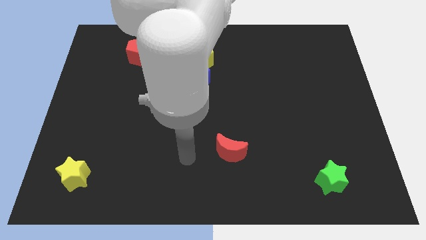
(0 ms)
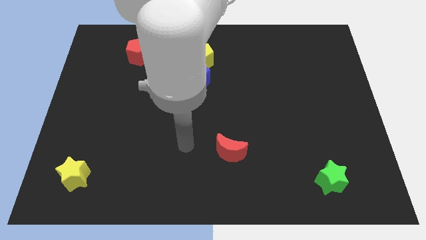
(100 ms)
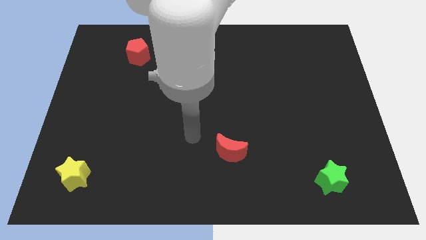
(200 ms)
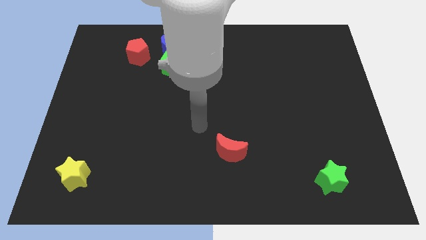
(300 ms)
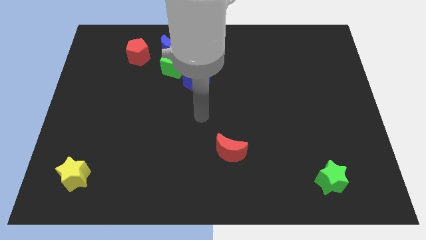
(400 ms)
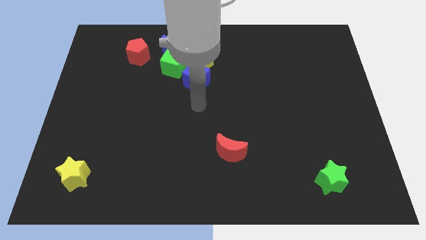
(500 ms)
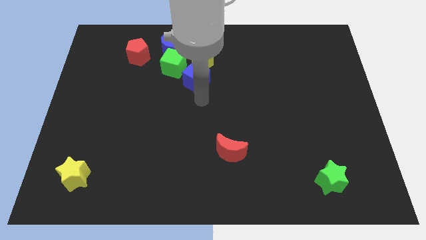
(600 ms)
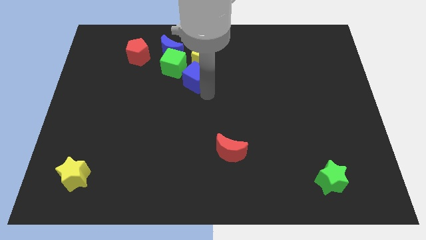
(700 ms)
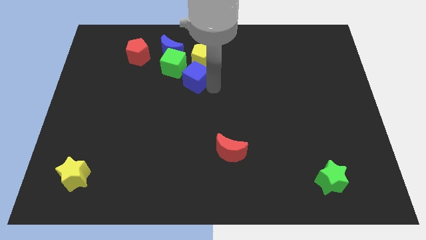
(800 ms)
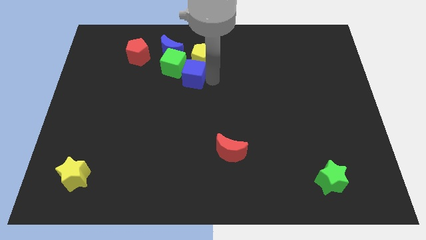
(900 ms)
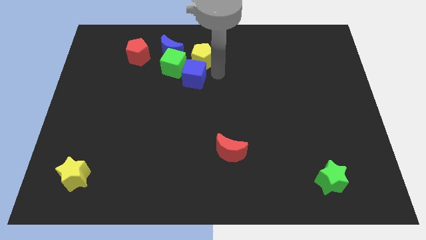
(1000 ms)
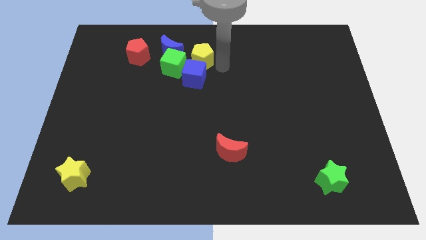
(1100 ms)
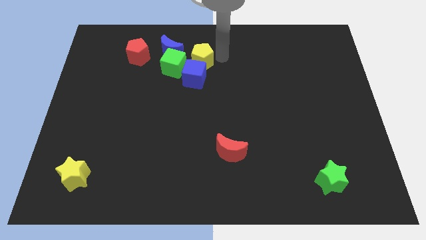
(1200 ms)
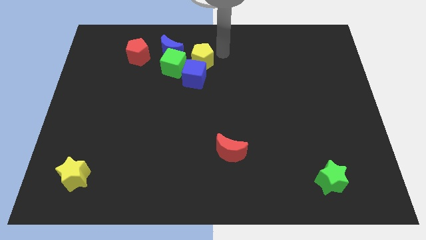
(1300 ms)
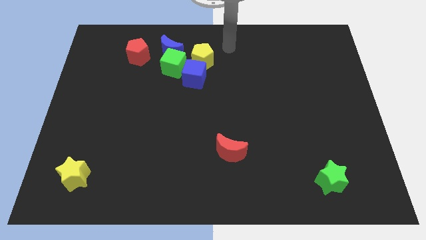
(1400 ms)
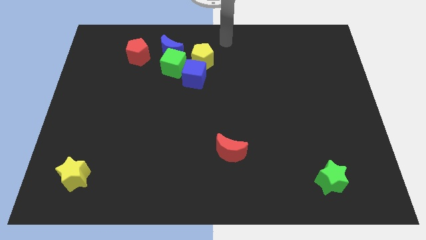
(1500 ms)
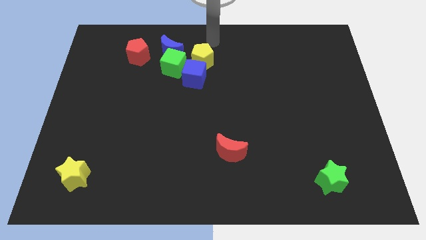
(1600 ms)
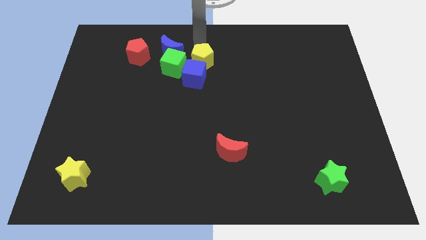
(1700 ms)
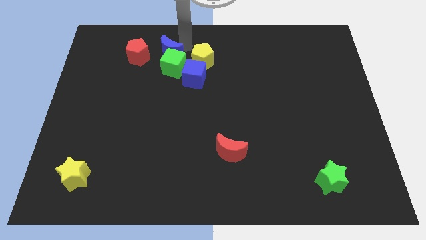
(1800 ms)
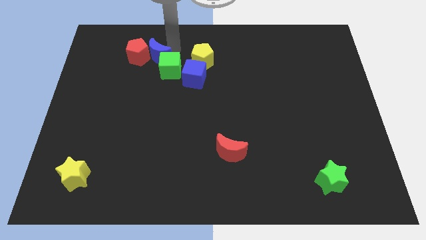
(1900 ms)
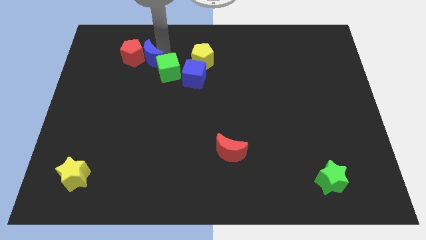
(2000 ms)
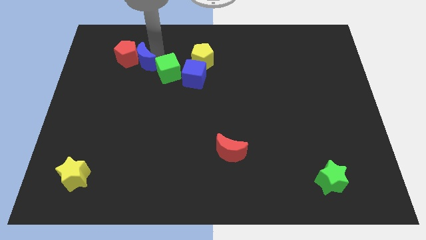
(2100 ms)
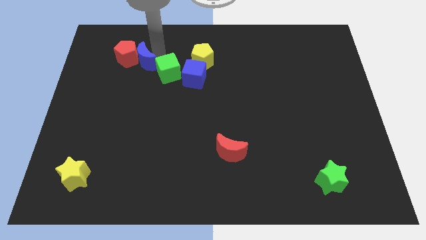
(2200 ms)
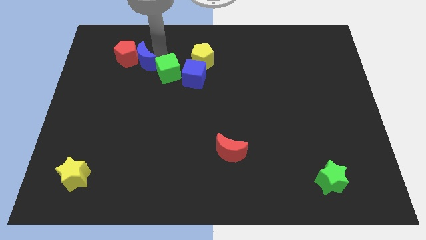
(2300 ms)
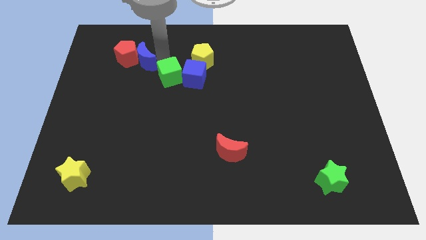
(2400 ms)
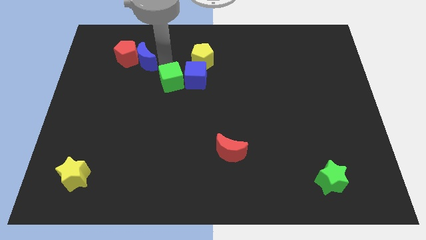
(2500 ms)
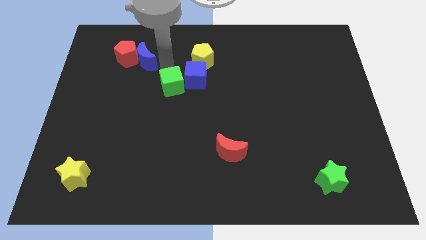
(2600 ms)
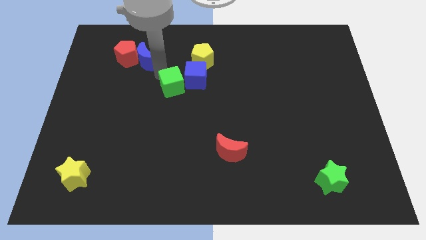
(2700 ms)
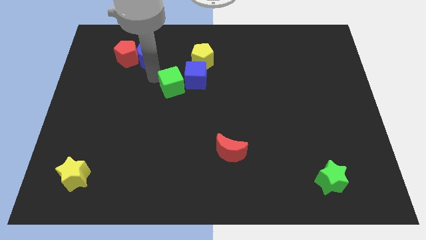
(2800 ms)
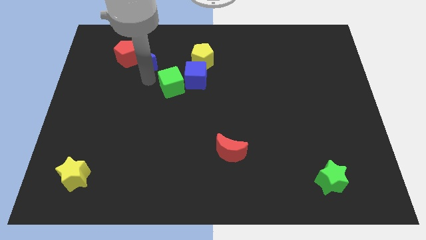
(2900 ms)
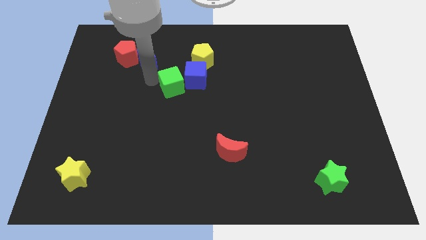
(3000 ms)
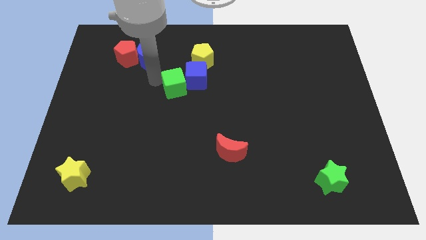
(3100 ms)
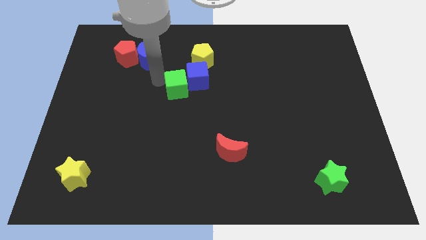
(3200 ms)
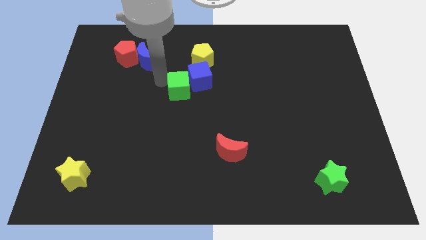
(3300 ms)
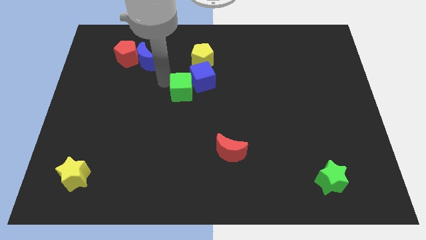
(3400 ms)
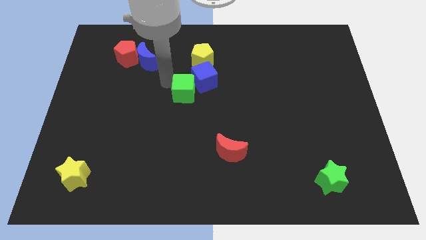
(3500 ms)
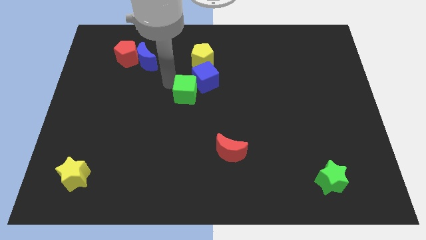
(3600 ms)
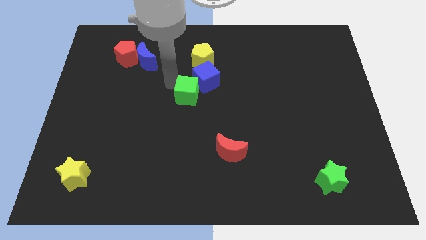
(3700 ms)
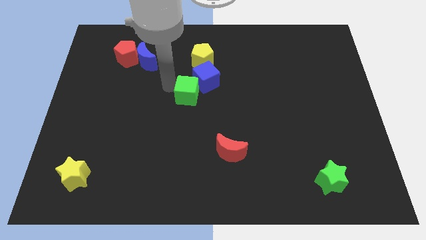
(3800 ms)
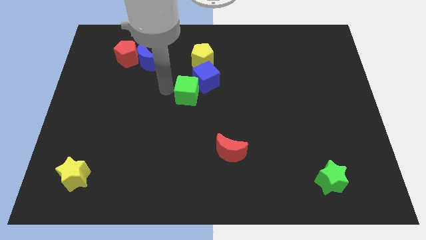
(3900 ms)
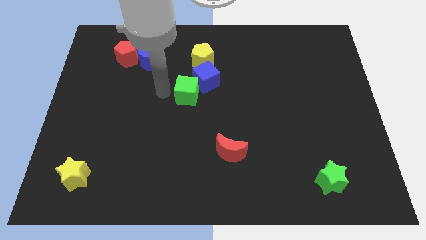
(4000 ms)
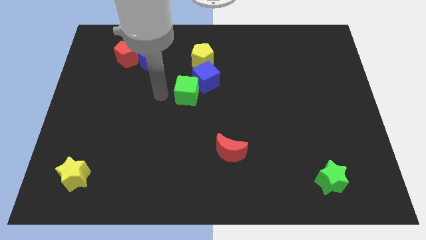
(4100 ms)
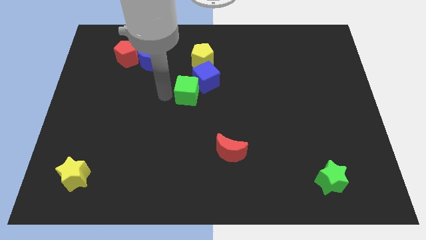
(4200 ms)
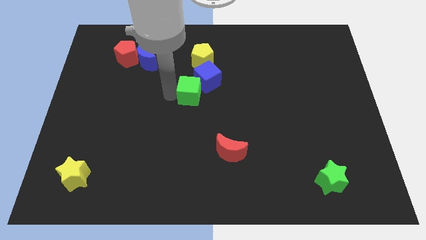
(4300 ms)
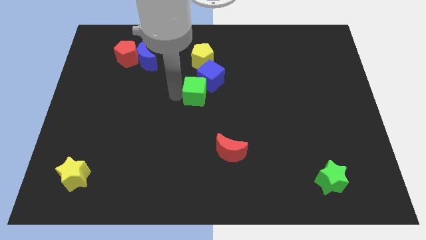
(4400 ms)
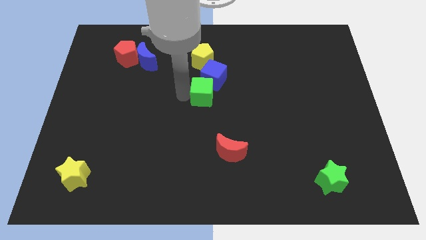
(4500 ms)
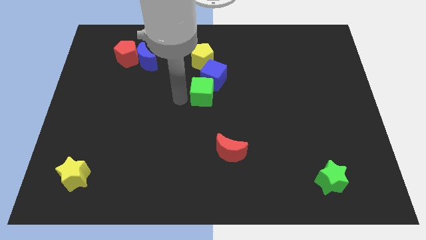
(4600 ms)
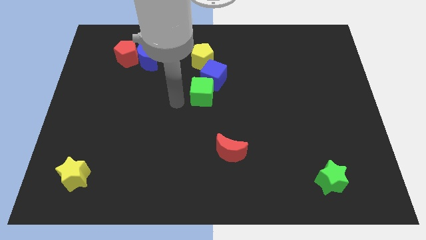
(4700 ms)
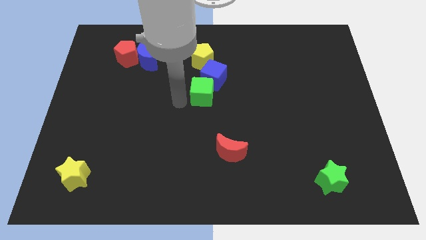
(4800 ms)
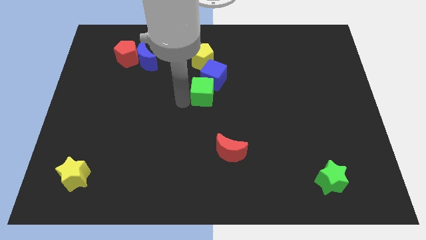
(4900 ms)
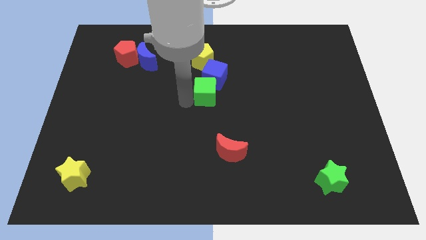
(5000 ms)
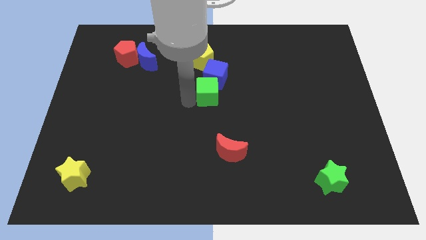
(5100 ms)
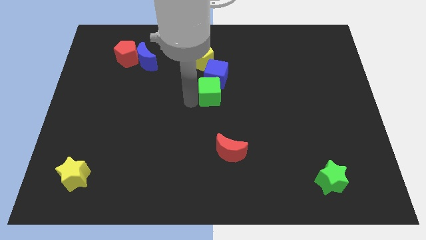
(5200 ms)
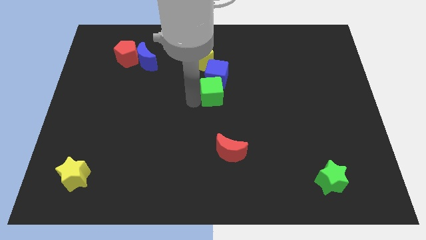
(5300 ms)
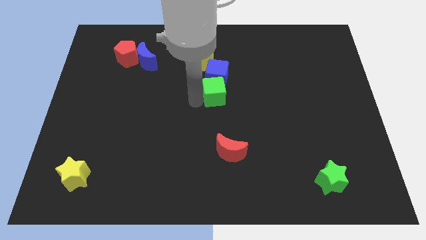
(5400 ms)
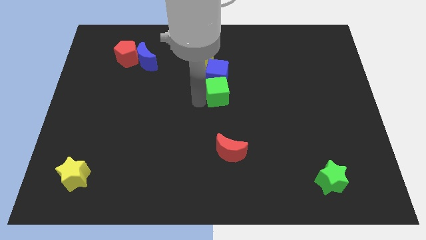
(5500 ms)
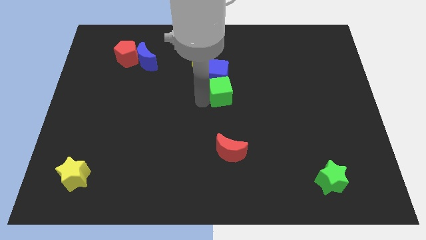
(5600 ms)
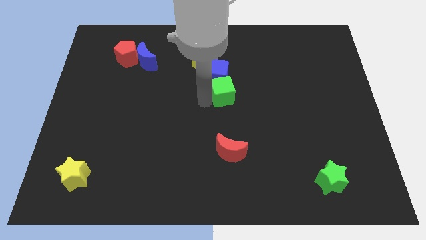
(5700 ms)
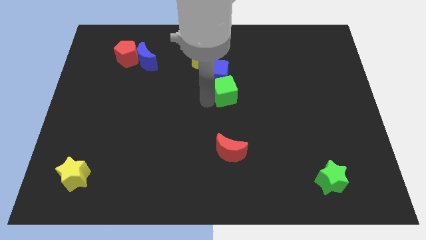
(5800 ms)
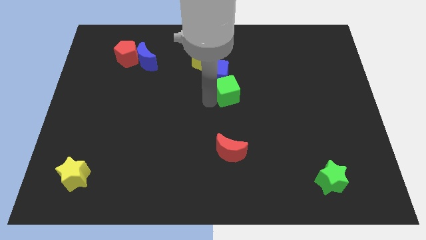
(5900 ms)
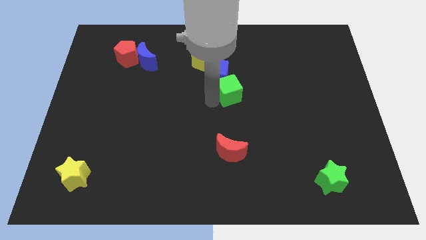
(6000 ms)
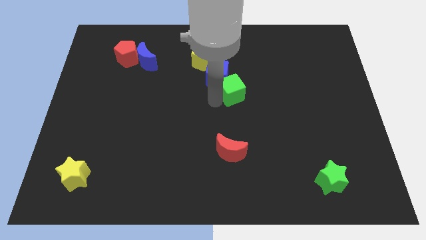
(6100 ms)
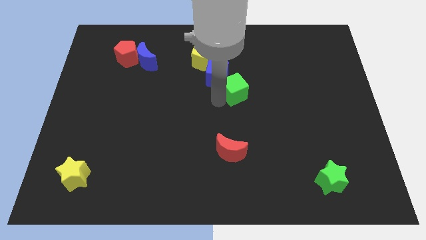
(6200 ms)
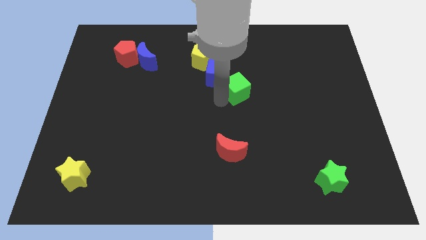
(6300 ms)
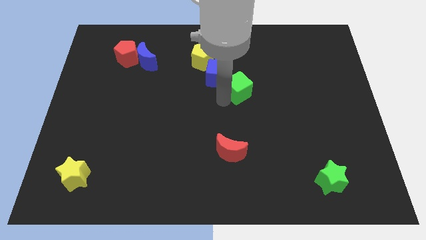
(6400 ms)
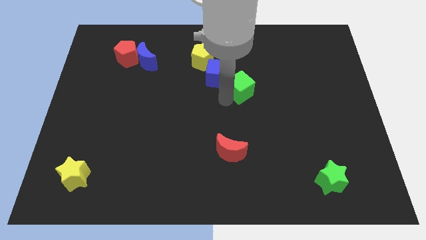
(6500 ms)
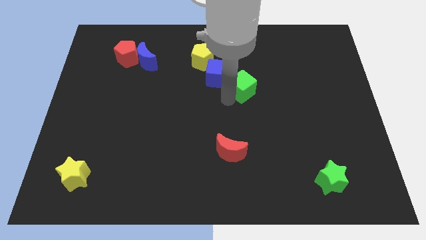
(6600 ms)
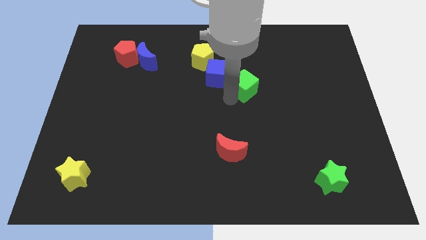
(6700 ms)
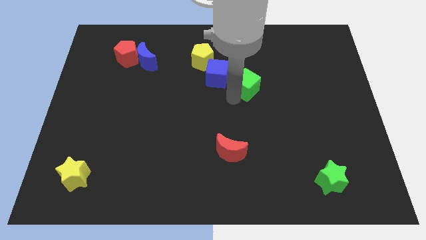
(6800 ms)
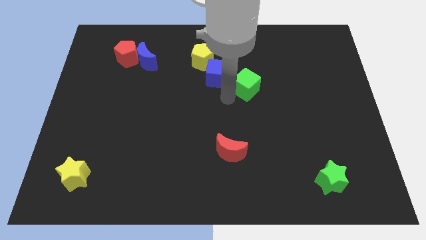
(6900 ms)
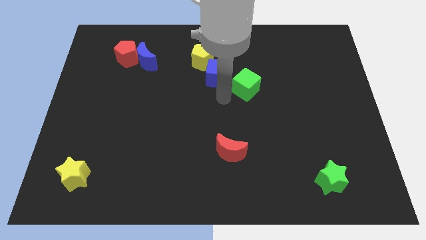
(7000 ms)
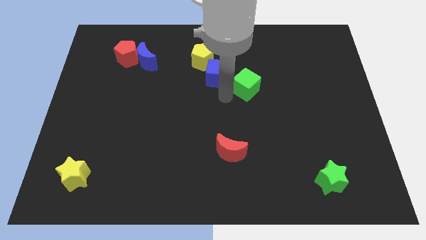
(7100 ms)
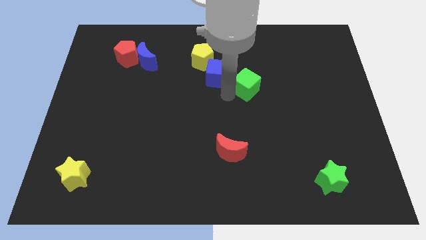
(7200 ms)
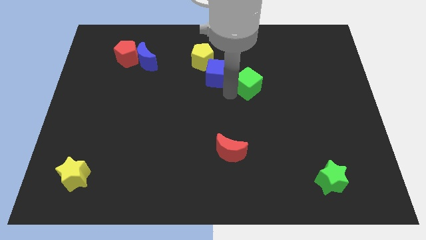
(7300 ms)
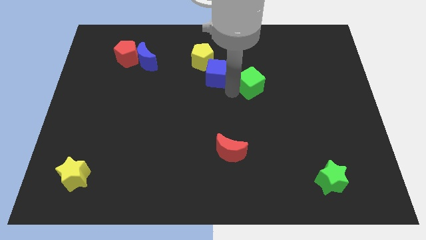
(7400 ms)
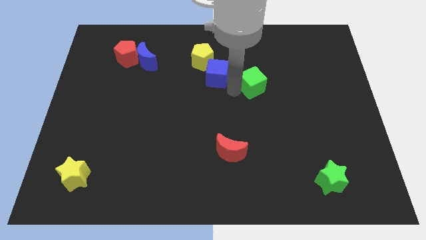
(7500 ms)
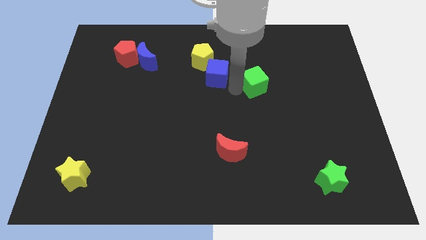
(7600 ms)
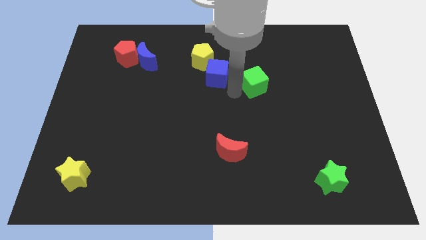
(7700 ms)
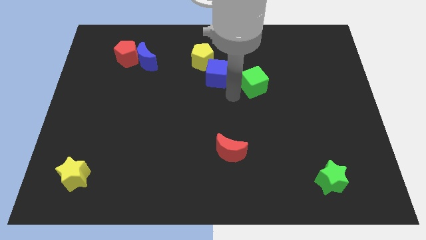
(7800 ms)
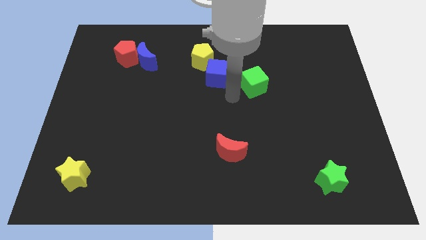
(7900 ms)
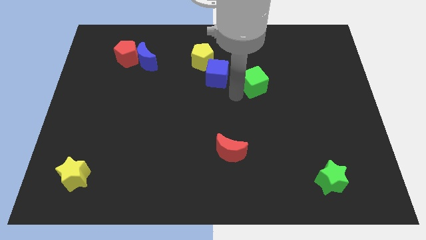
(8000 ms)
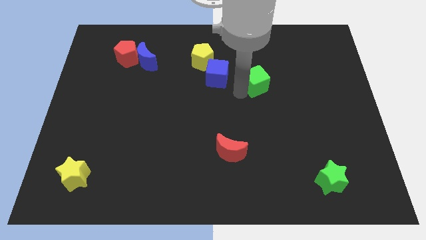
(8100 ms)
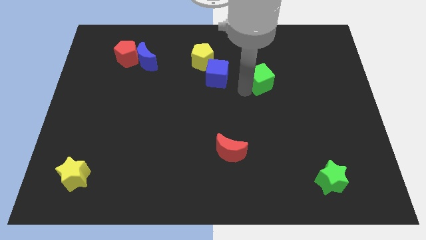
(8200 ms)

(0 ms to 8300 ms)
move the green cube right
